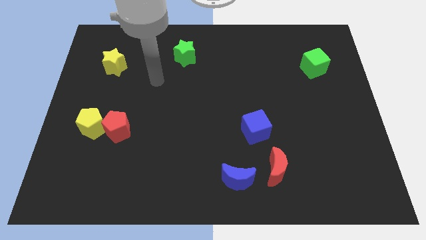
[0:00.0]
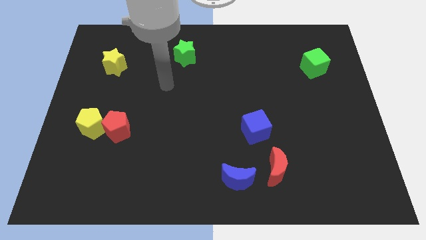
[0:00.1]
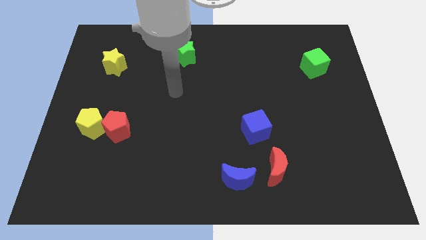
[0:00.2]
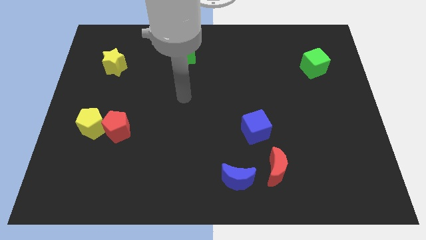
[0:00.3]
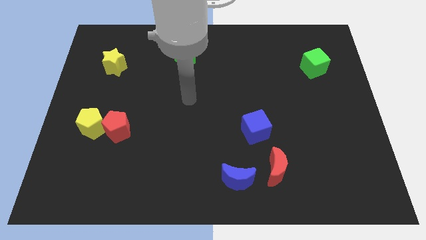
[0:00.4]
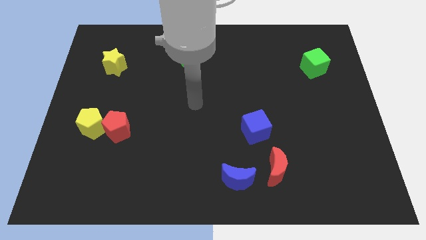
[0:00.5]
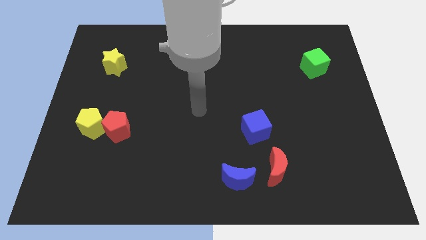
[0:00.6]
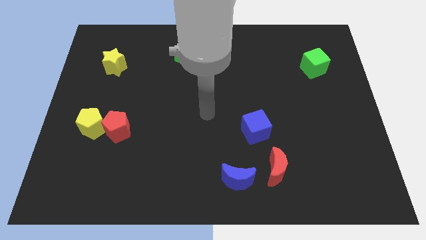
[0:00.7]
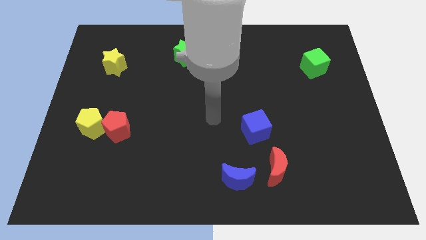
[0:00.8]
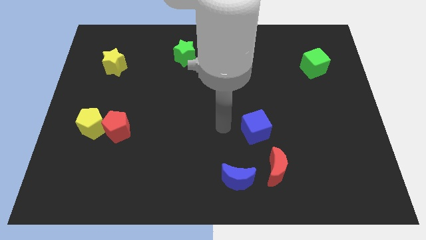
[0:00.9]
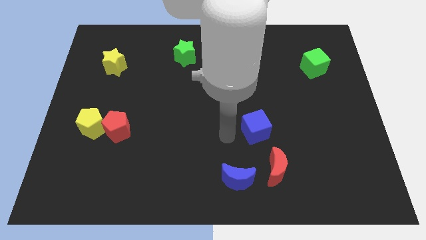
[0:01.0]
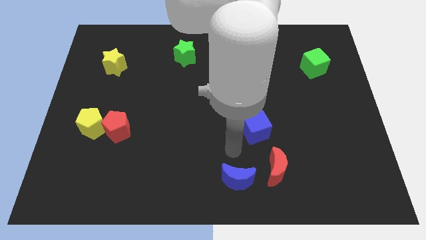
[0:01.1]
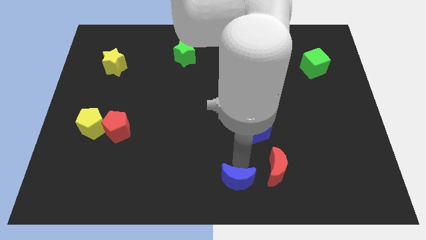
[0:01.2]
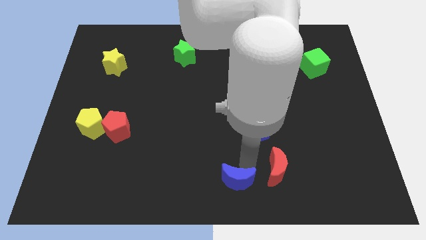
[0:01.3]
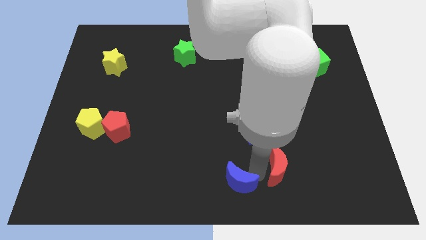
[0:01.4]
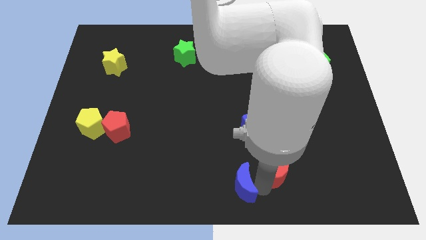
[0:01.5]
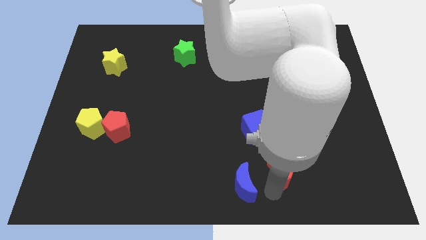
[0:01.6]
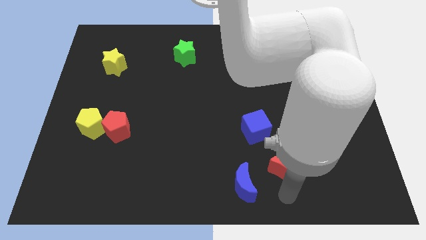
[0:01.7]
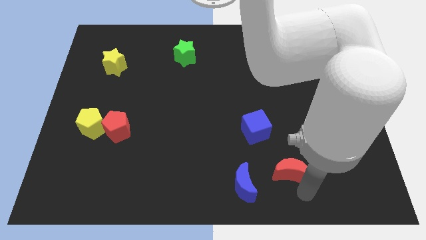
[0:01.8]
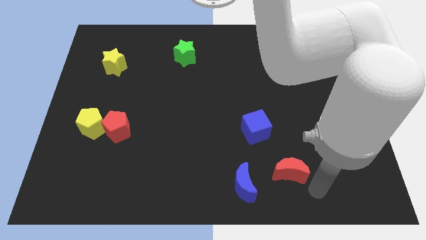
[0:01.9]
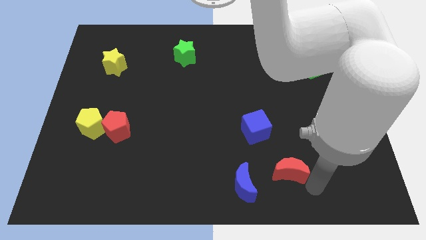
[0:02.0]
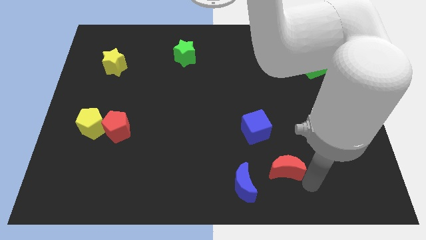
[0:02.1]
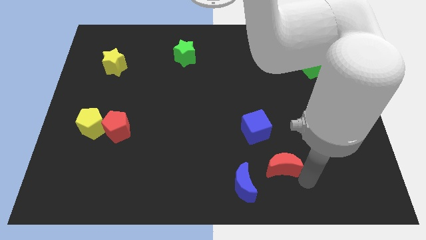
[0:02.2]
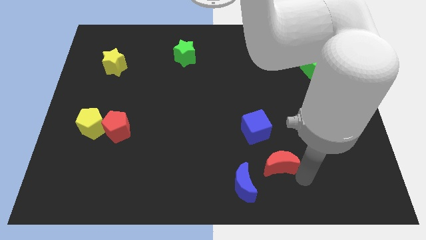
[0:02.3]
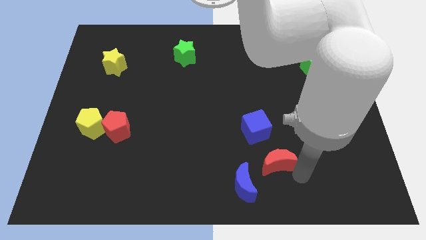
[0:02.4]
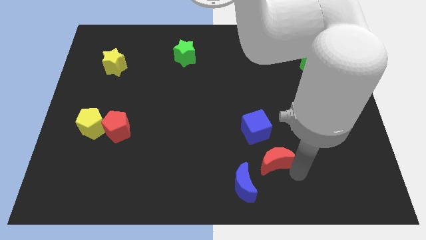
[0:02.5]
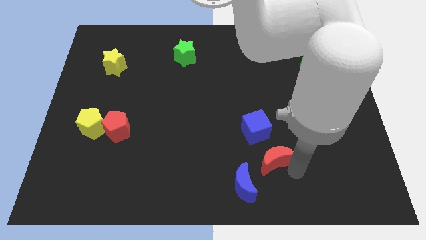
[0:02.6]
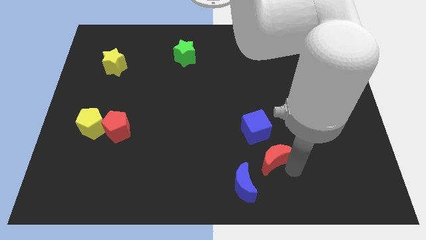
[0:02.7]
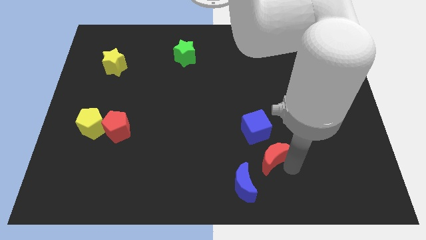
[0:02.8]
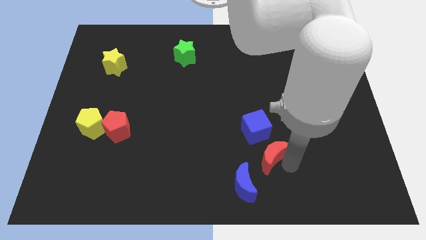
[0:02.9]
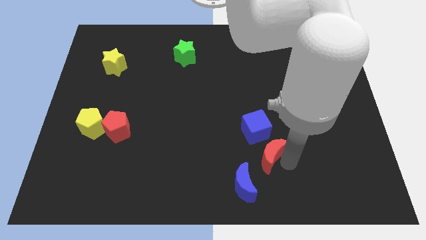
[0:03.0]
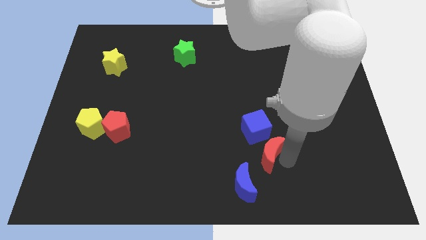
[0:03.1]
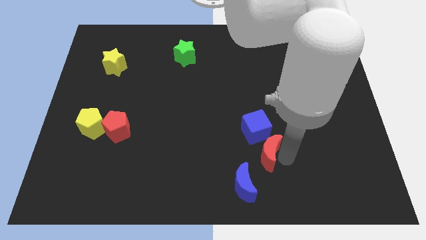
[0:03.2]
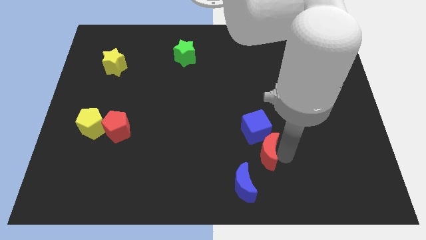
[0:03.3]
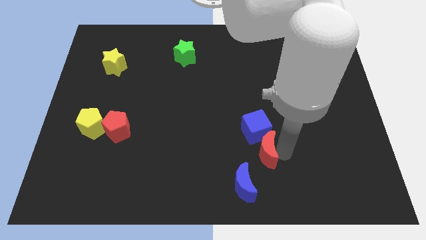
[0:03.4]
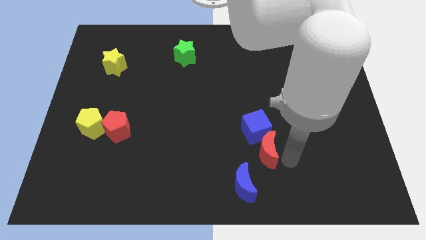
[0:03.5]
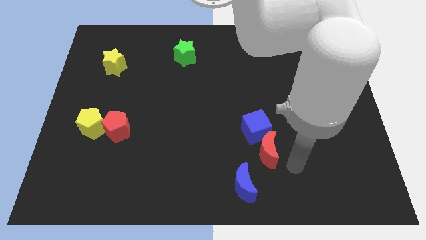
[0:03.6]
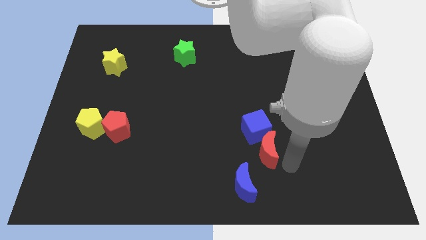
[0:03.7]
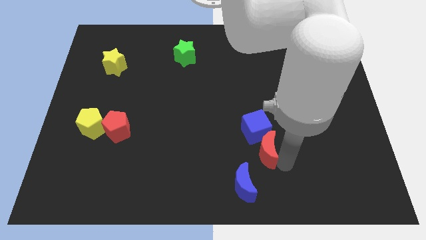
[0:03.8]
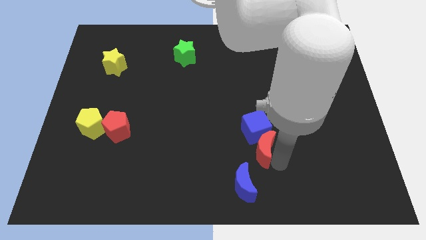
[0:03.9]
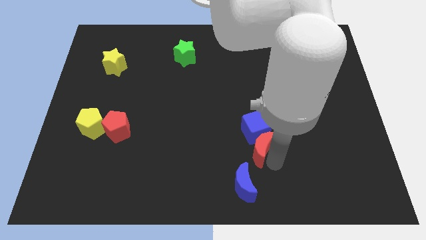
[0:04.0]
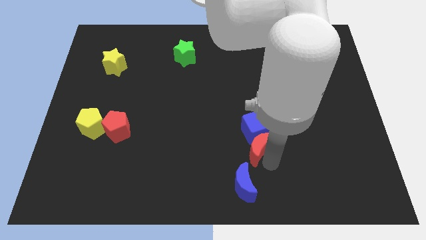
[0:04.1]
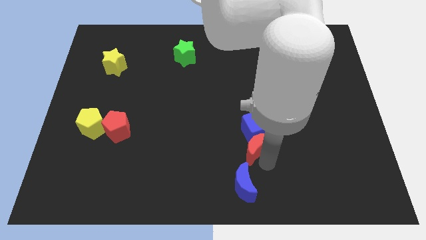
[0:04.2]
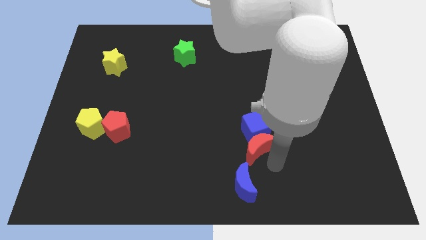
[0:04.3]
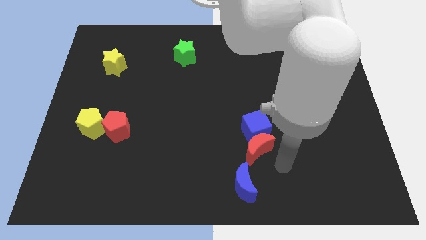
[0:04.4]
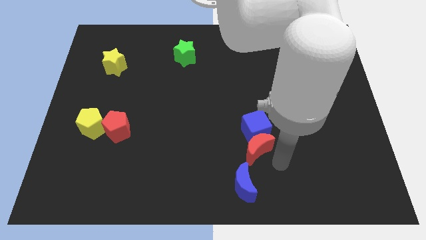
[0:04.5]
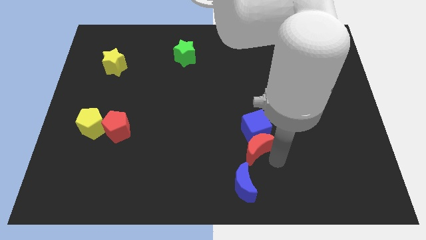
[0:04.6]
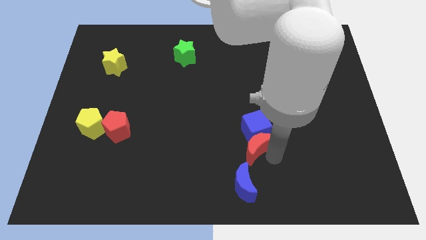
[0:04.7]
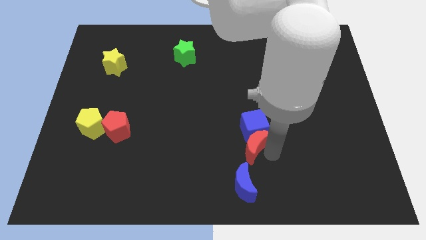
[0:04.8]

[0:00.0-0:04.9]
slightly push the red moon up and left diagonally

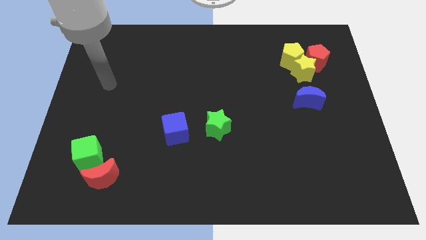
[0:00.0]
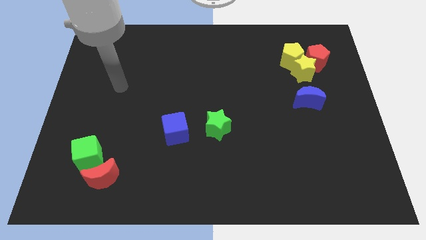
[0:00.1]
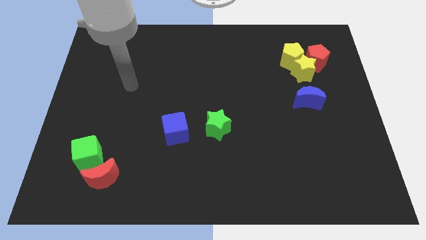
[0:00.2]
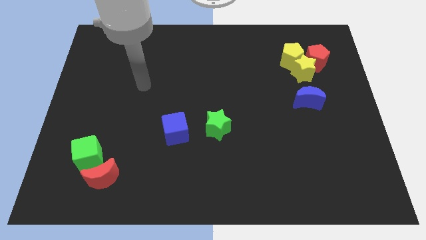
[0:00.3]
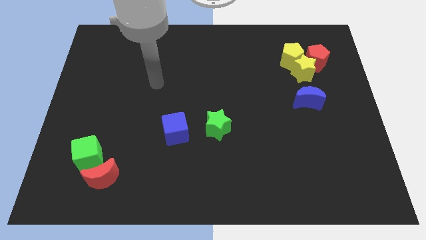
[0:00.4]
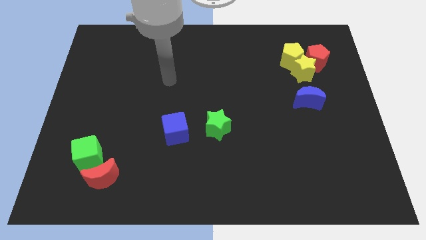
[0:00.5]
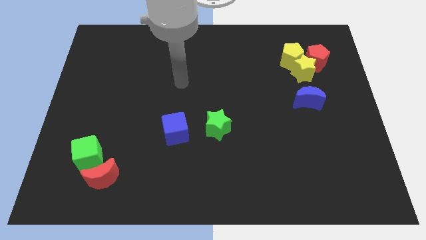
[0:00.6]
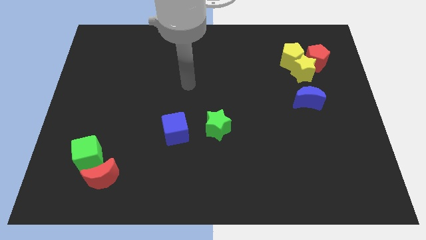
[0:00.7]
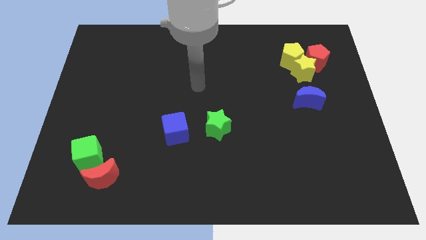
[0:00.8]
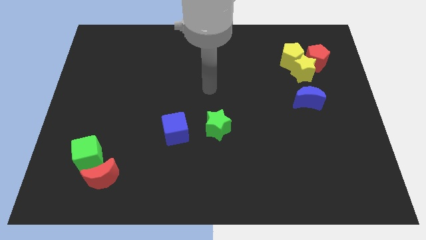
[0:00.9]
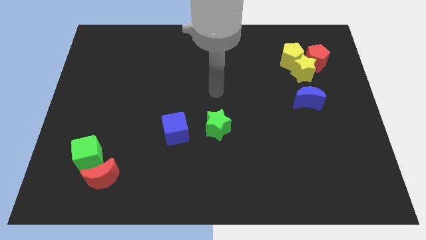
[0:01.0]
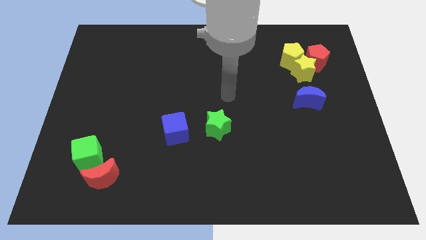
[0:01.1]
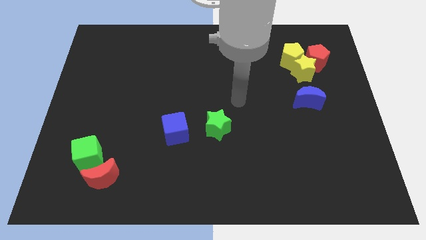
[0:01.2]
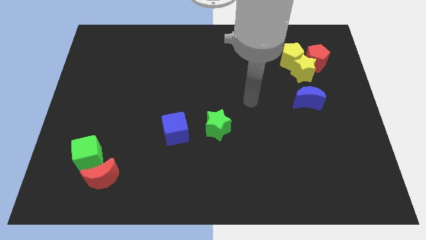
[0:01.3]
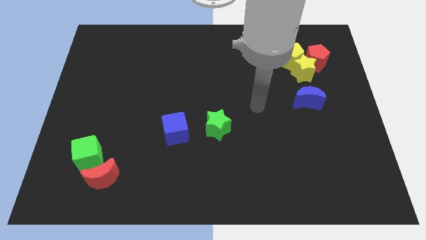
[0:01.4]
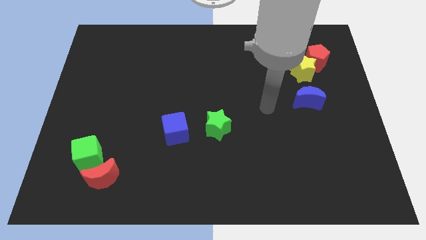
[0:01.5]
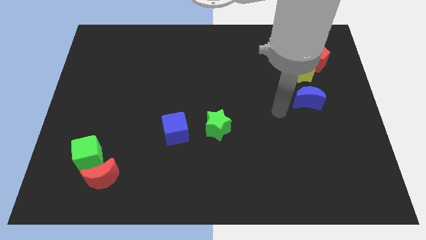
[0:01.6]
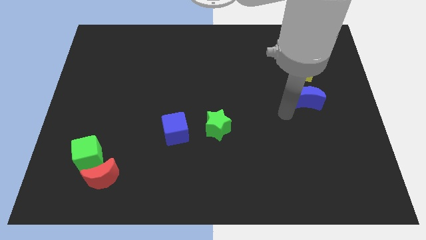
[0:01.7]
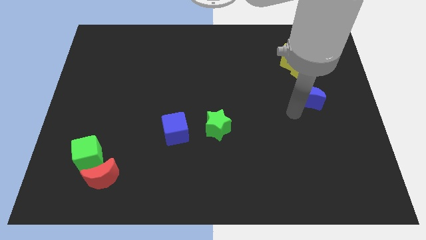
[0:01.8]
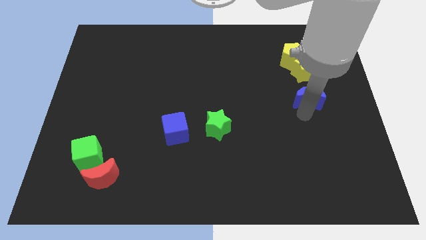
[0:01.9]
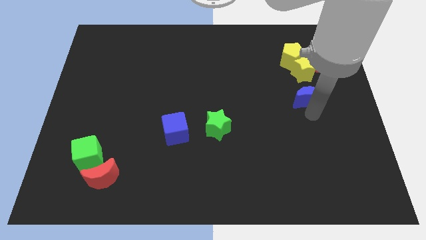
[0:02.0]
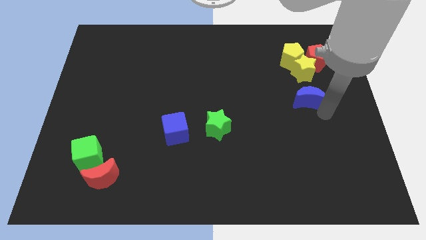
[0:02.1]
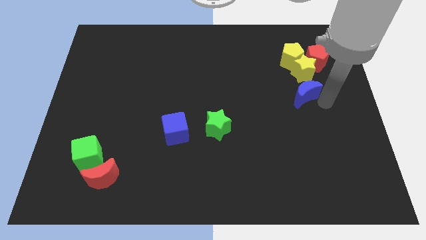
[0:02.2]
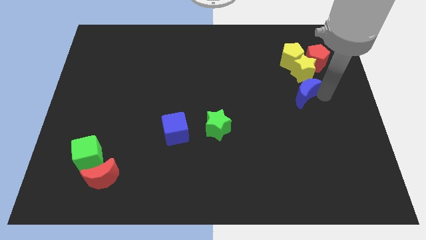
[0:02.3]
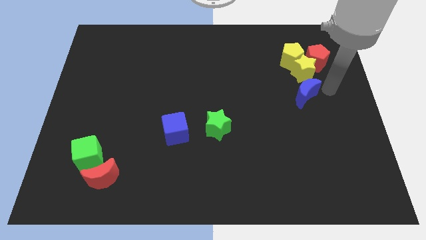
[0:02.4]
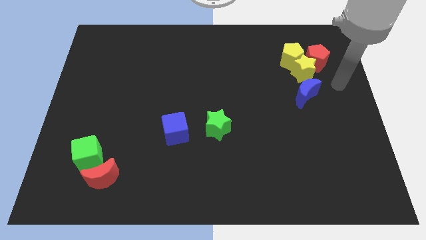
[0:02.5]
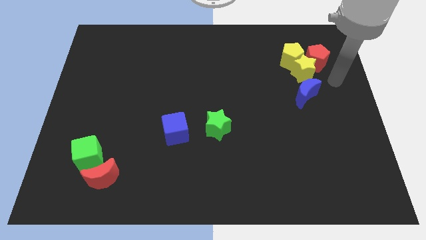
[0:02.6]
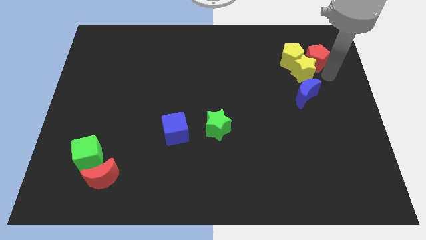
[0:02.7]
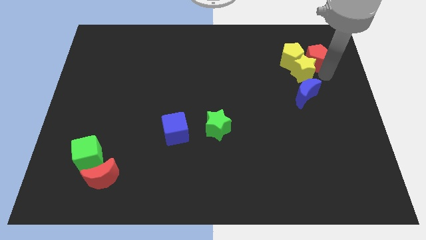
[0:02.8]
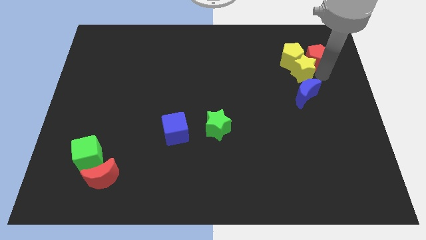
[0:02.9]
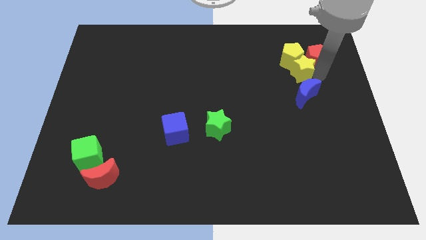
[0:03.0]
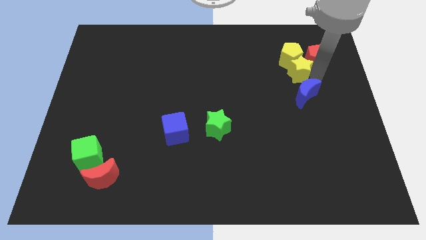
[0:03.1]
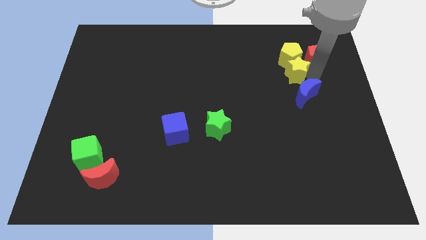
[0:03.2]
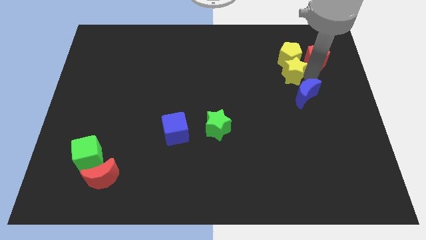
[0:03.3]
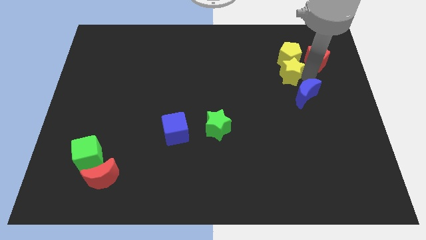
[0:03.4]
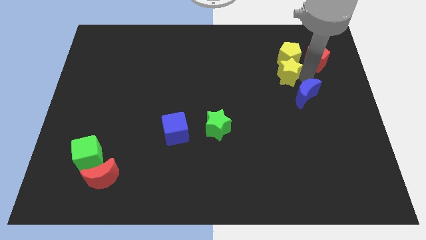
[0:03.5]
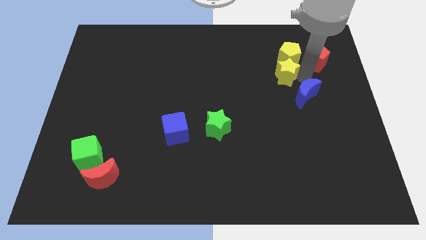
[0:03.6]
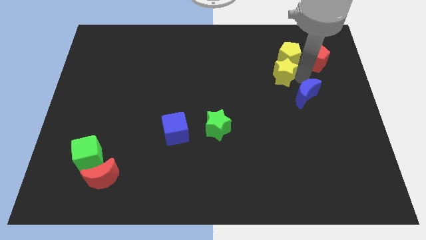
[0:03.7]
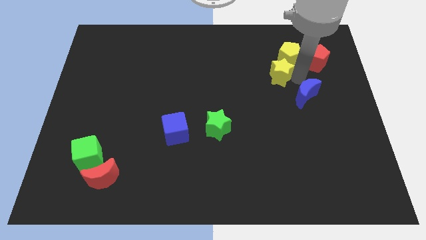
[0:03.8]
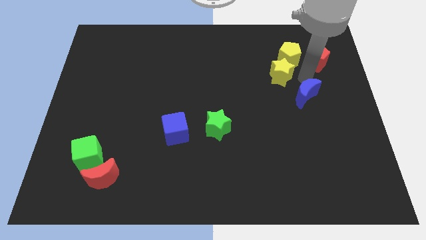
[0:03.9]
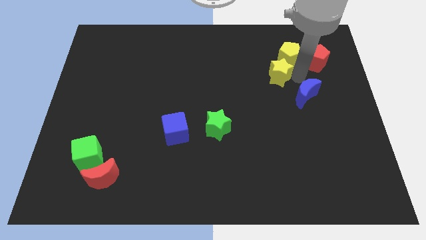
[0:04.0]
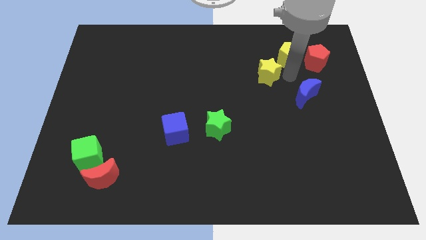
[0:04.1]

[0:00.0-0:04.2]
slide the yellow star to the left somewhat
